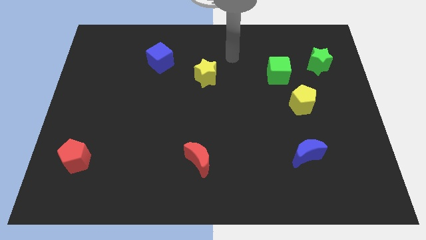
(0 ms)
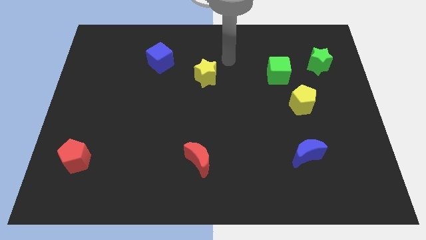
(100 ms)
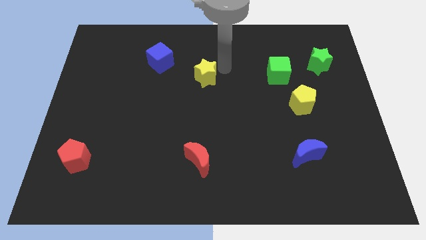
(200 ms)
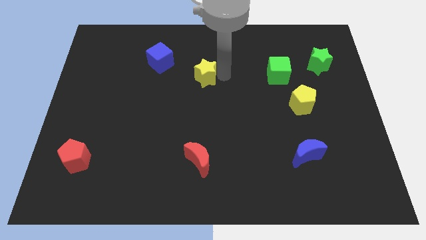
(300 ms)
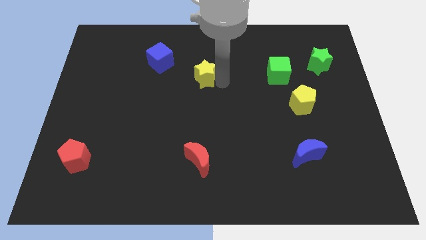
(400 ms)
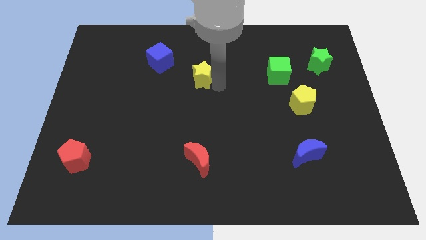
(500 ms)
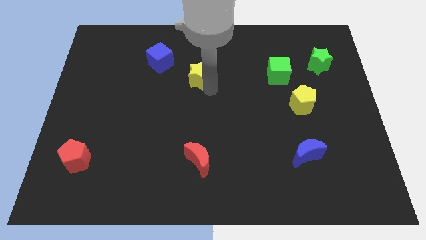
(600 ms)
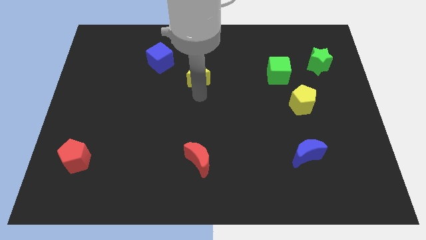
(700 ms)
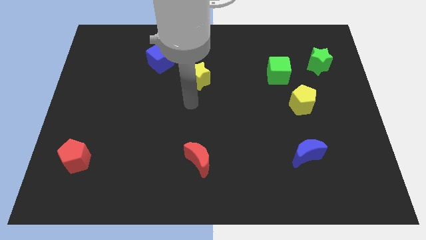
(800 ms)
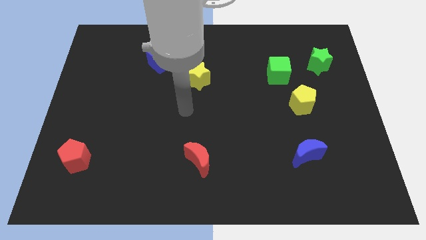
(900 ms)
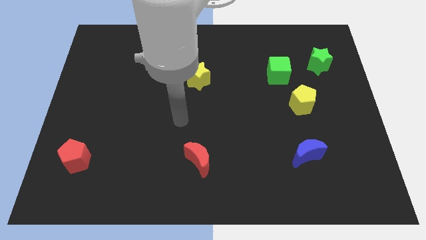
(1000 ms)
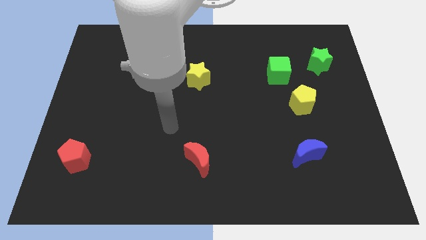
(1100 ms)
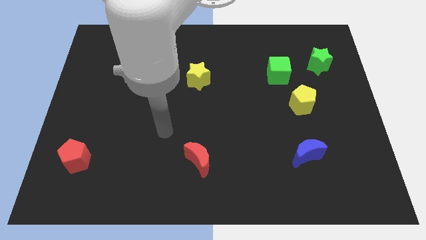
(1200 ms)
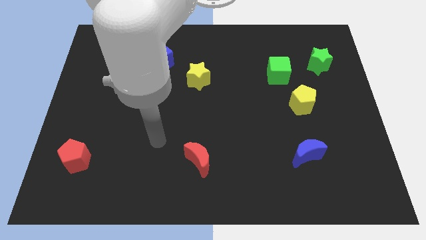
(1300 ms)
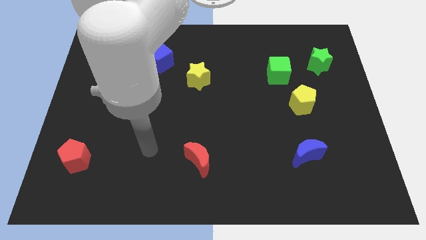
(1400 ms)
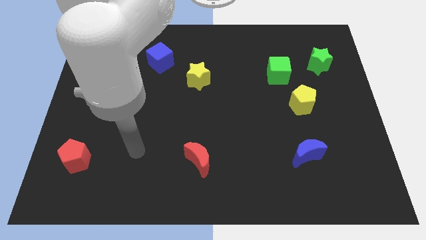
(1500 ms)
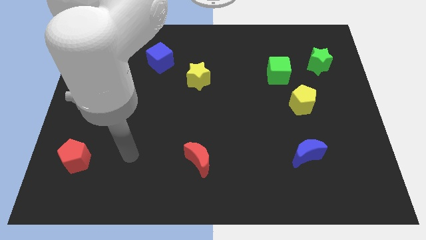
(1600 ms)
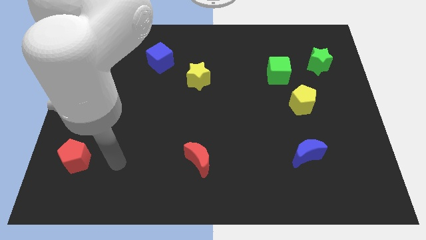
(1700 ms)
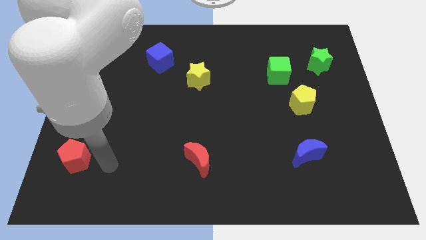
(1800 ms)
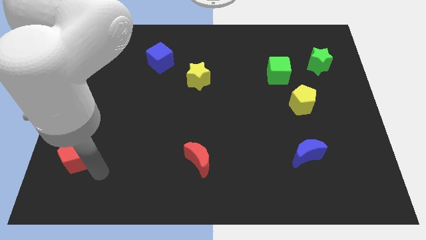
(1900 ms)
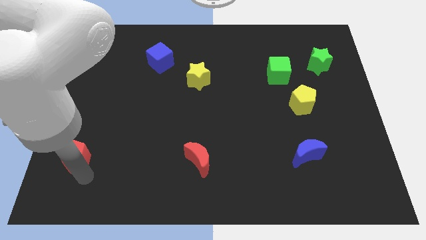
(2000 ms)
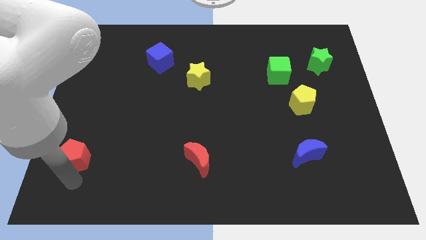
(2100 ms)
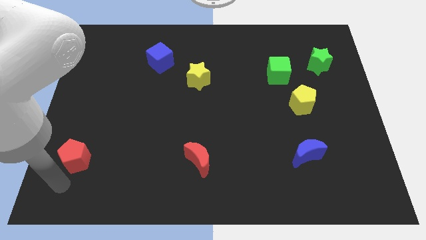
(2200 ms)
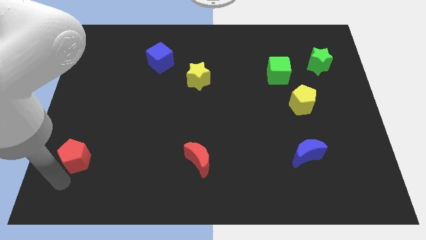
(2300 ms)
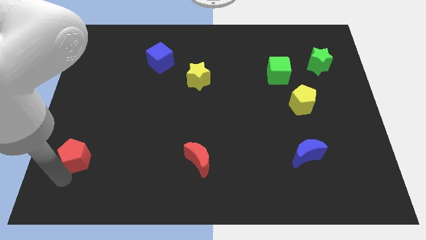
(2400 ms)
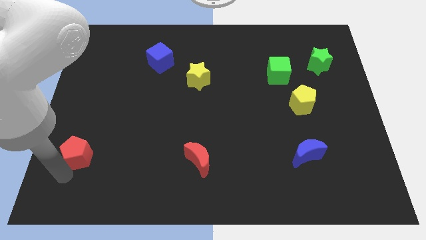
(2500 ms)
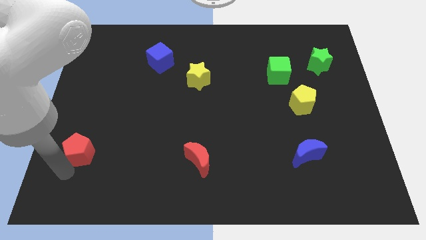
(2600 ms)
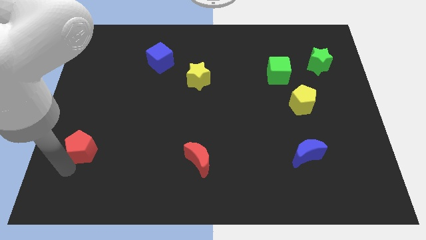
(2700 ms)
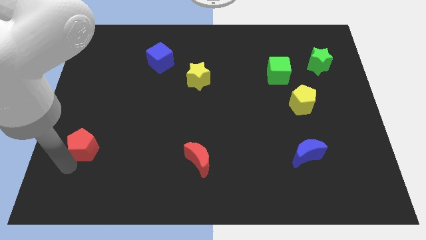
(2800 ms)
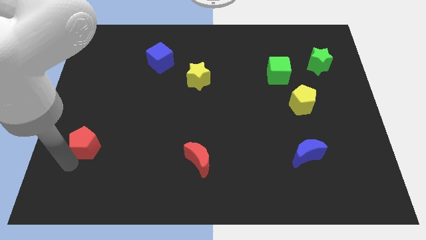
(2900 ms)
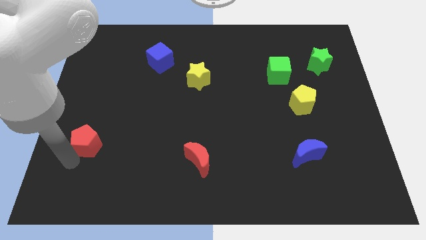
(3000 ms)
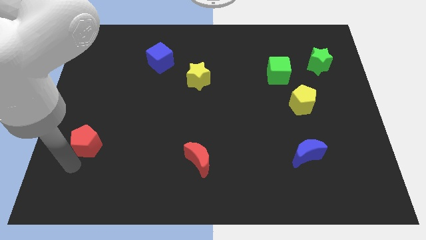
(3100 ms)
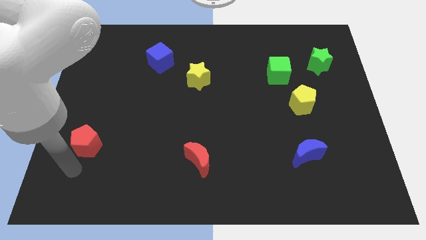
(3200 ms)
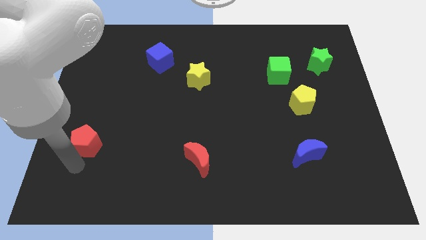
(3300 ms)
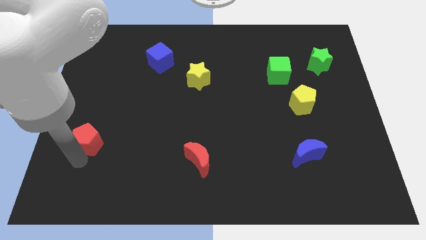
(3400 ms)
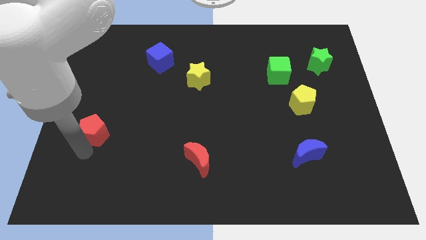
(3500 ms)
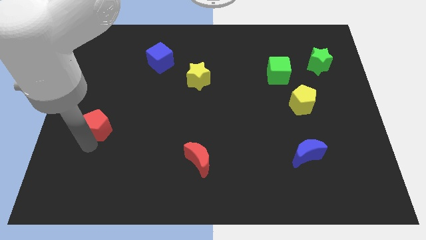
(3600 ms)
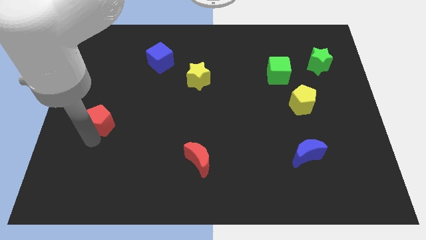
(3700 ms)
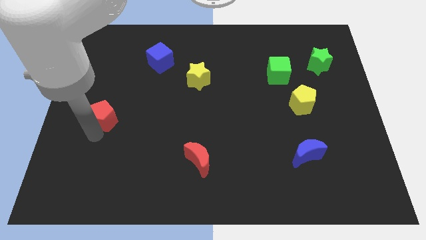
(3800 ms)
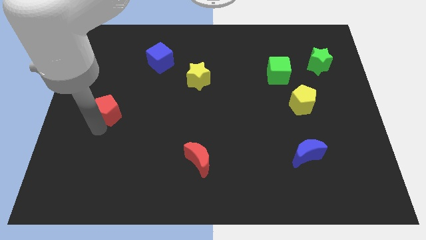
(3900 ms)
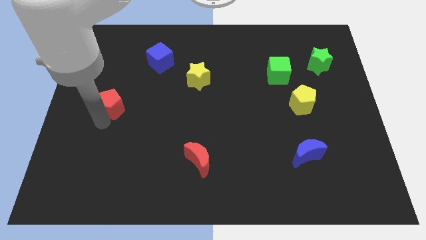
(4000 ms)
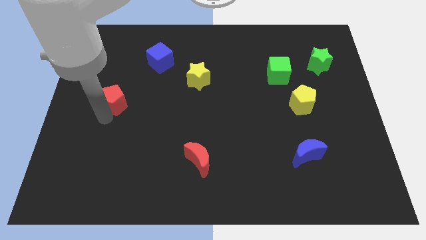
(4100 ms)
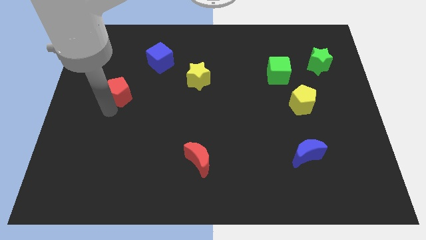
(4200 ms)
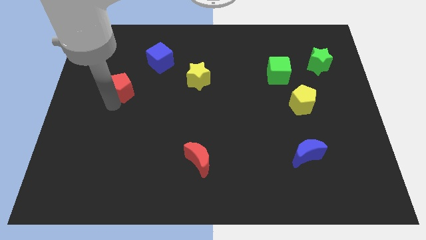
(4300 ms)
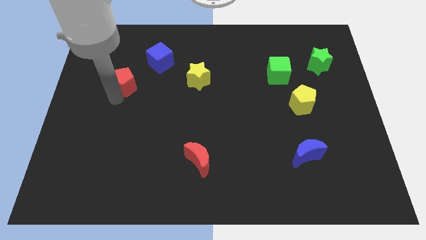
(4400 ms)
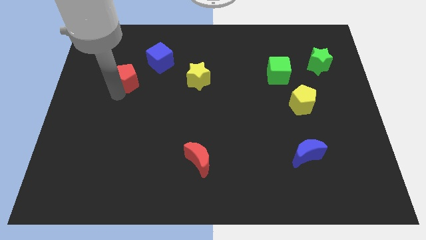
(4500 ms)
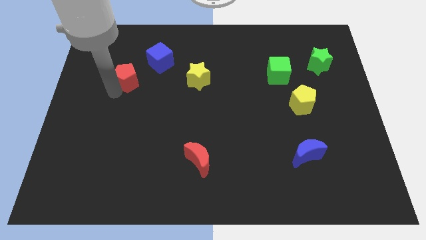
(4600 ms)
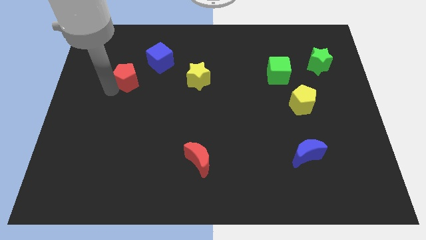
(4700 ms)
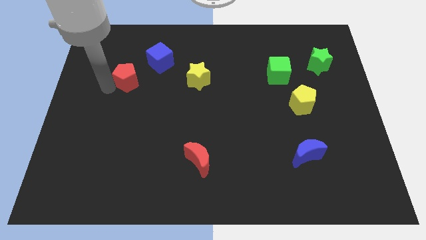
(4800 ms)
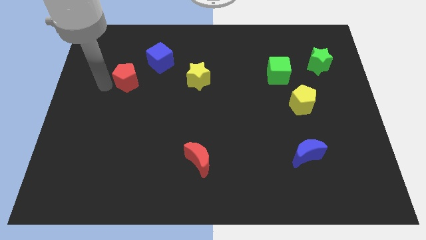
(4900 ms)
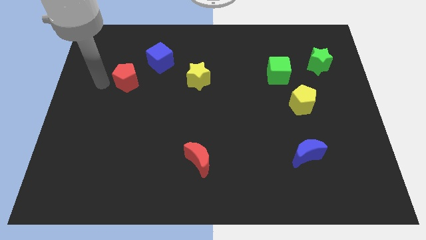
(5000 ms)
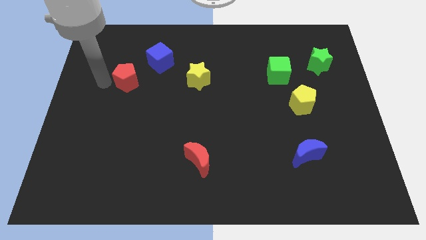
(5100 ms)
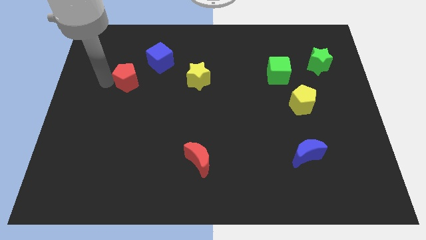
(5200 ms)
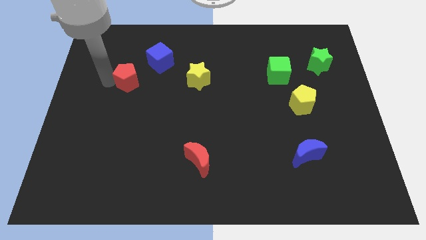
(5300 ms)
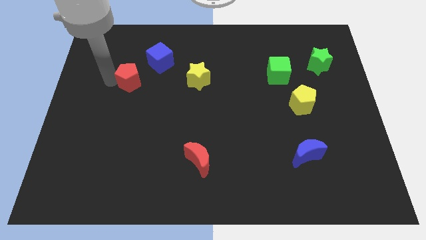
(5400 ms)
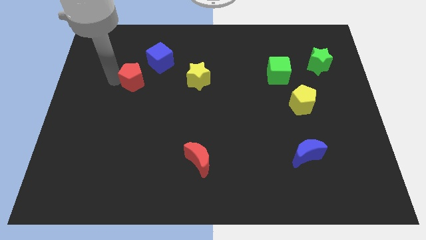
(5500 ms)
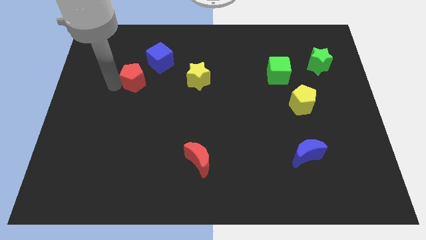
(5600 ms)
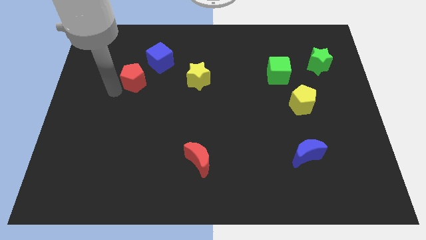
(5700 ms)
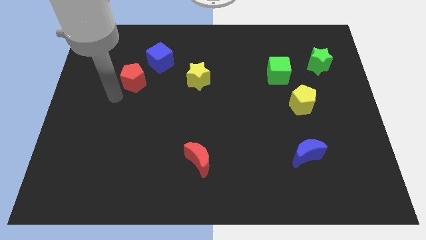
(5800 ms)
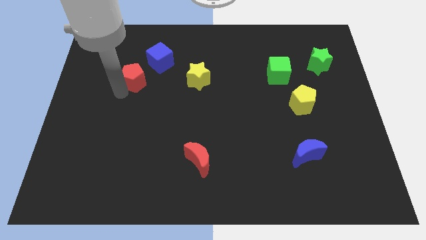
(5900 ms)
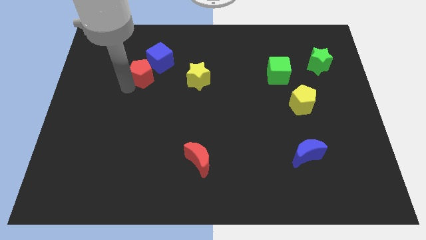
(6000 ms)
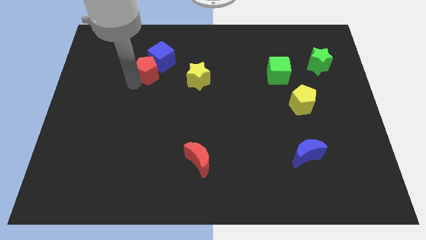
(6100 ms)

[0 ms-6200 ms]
move the red pentagon towards the blue cube

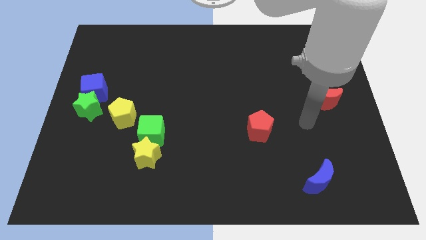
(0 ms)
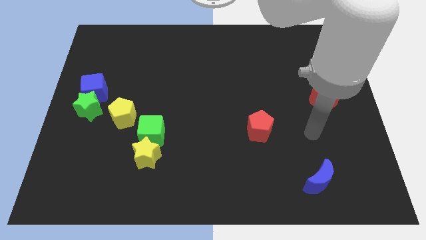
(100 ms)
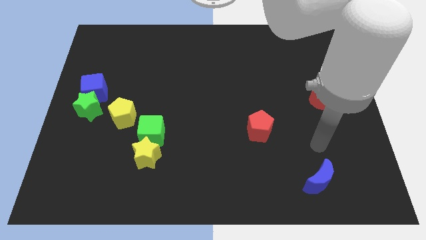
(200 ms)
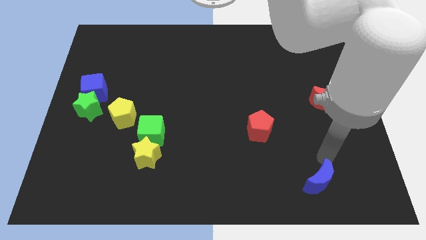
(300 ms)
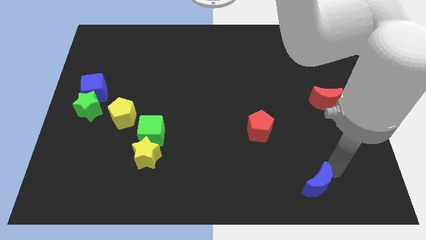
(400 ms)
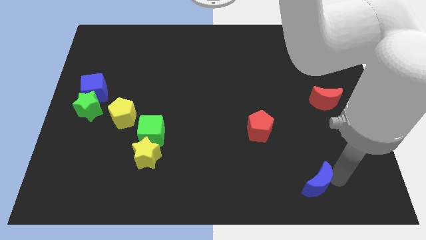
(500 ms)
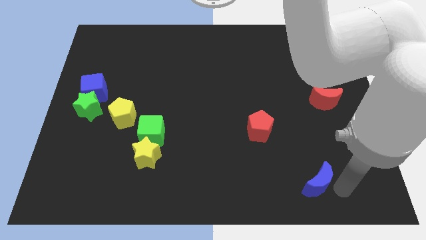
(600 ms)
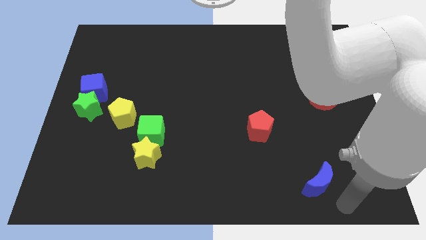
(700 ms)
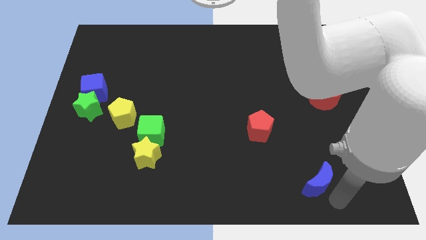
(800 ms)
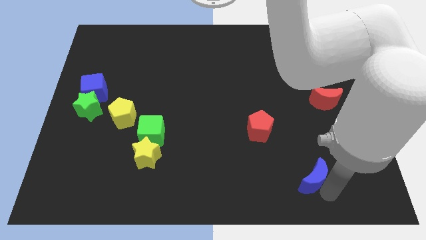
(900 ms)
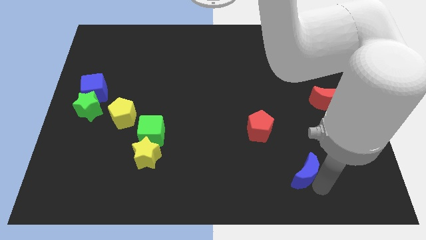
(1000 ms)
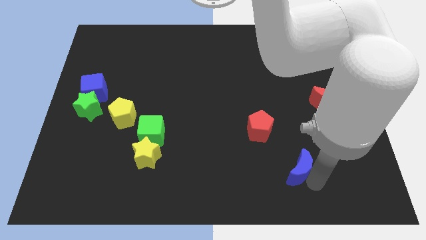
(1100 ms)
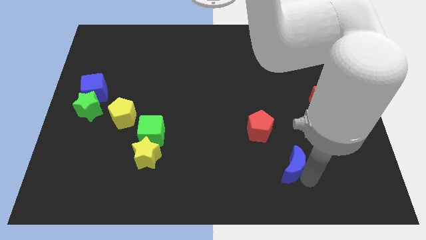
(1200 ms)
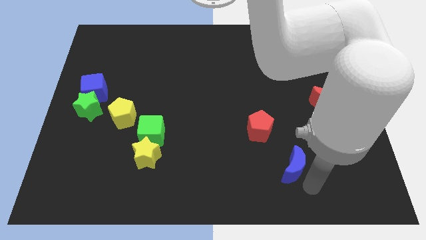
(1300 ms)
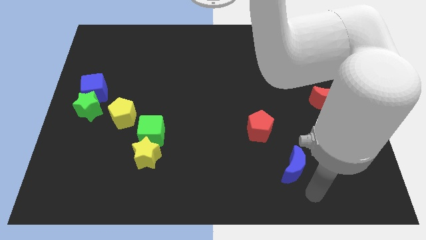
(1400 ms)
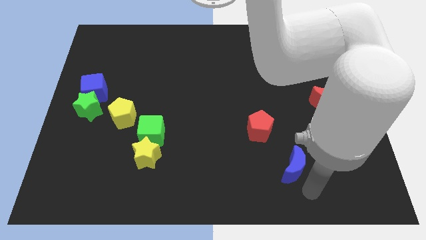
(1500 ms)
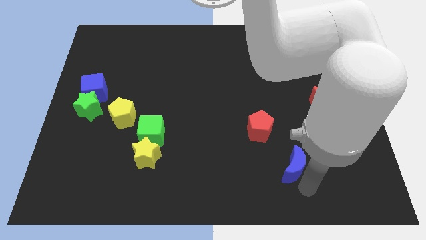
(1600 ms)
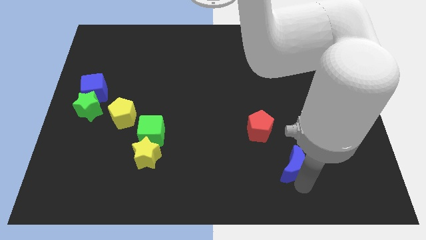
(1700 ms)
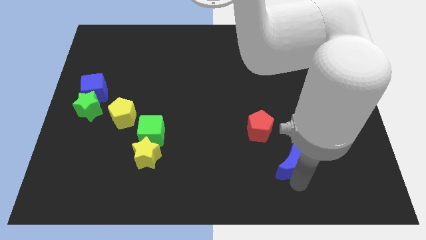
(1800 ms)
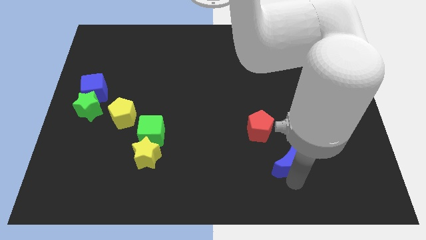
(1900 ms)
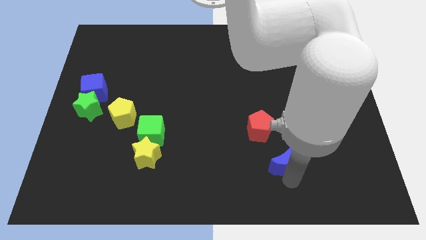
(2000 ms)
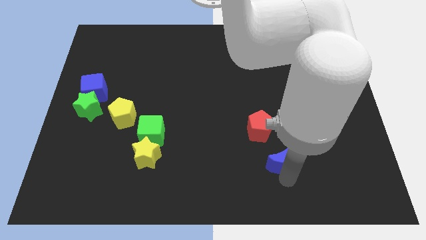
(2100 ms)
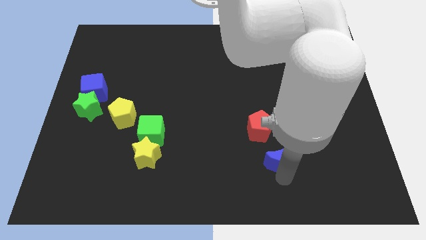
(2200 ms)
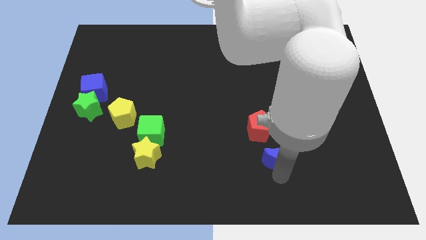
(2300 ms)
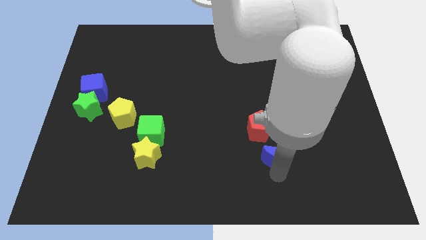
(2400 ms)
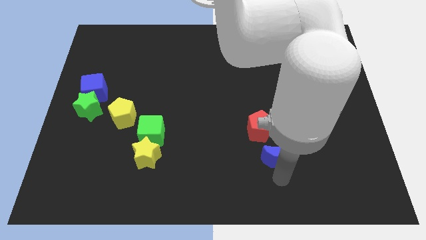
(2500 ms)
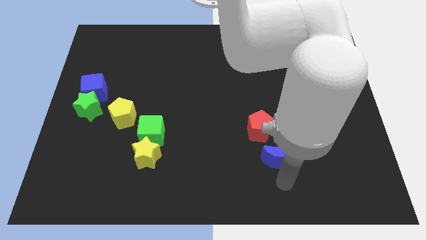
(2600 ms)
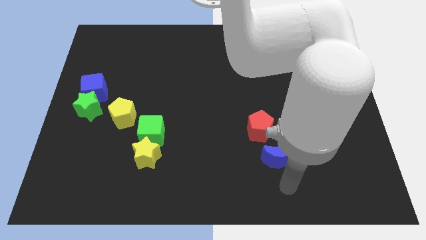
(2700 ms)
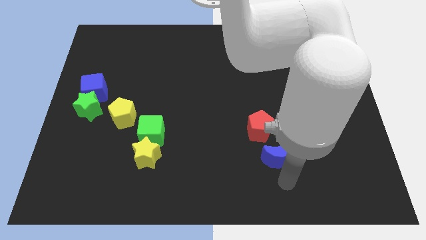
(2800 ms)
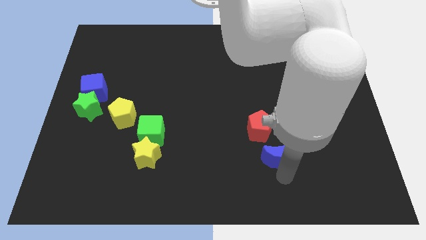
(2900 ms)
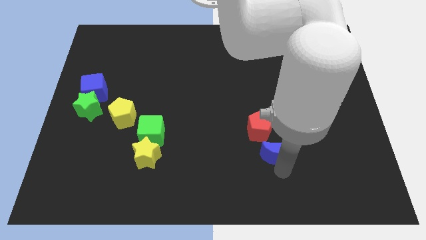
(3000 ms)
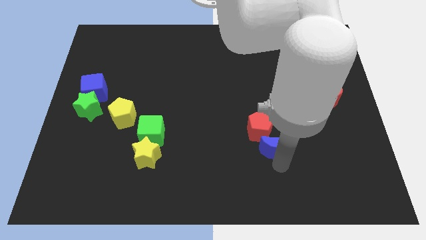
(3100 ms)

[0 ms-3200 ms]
slide the blue moon next to the red pentagon
